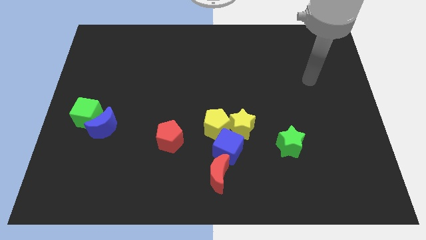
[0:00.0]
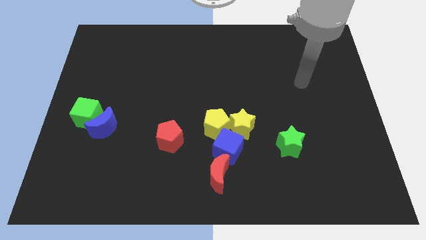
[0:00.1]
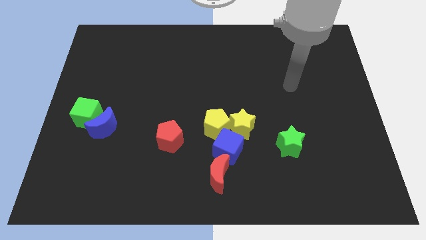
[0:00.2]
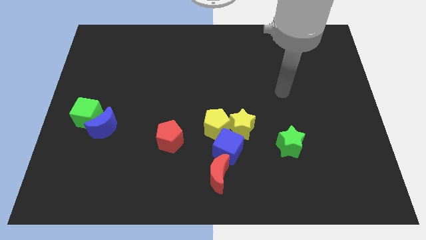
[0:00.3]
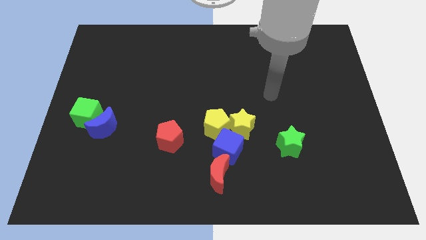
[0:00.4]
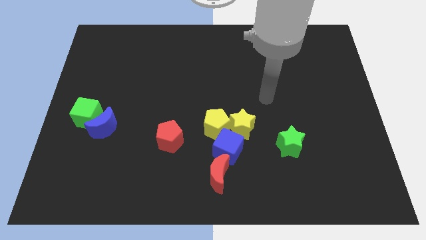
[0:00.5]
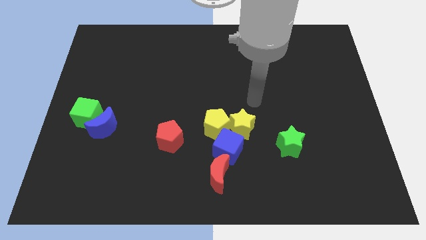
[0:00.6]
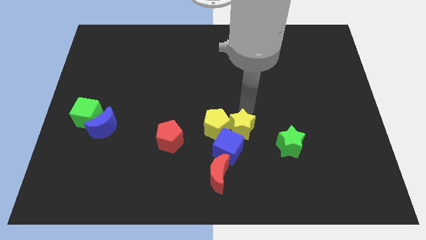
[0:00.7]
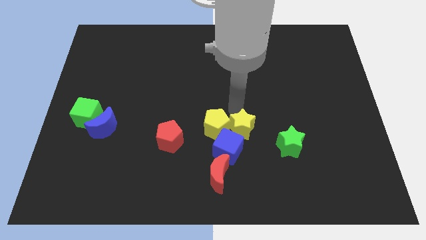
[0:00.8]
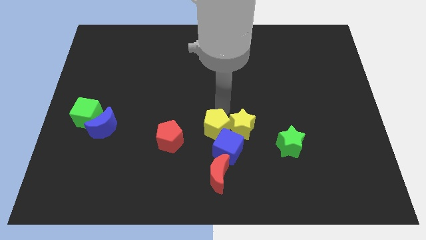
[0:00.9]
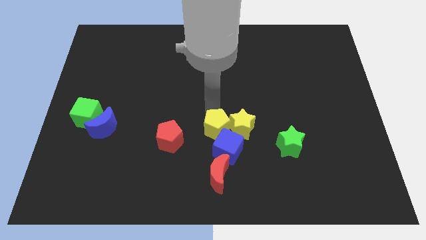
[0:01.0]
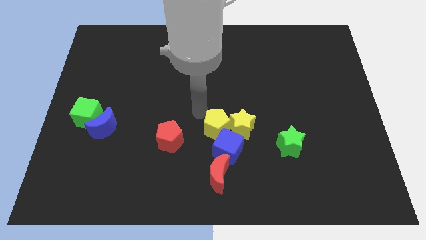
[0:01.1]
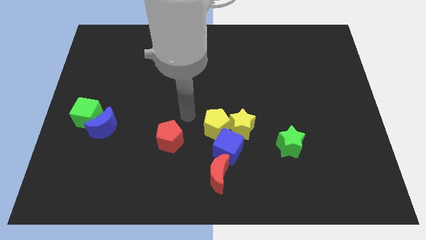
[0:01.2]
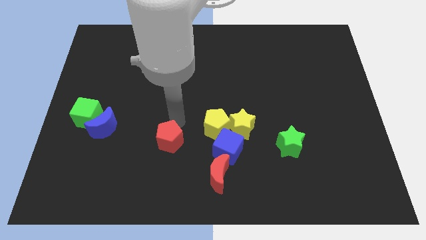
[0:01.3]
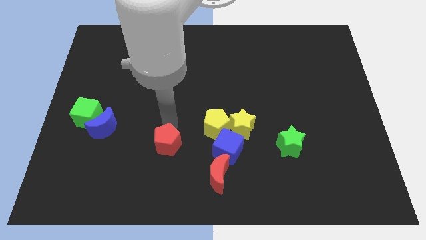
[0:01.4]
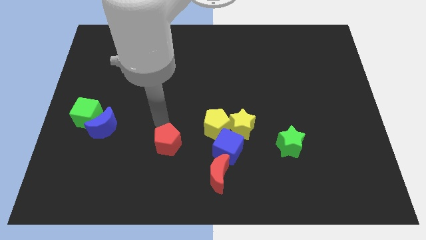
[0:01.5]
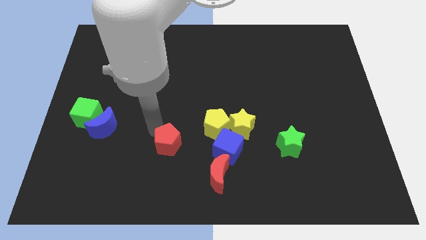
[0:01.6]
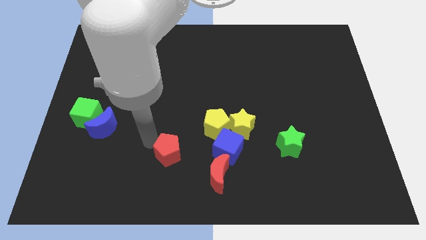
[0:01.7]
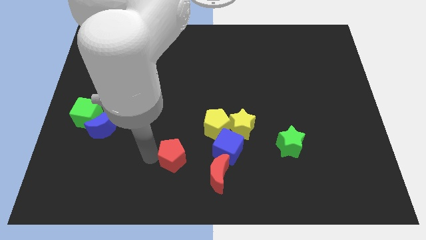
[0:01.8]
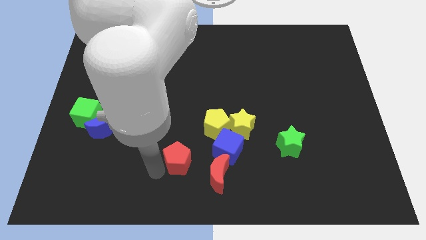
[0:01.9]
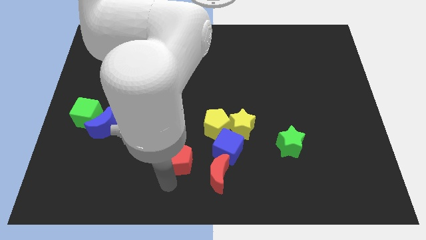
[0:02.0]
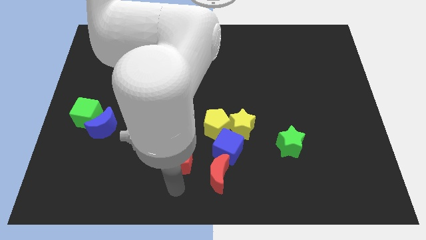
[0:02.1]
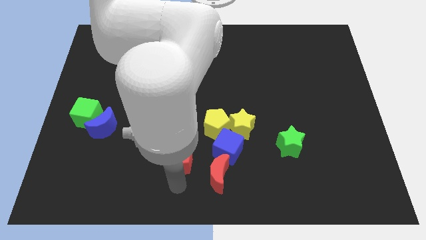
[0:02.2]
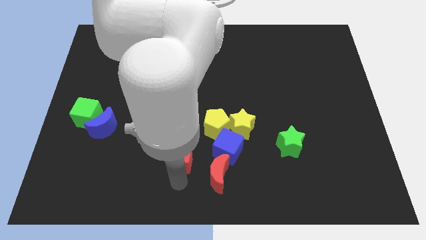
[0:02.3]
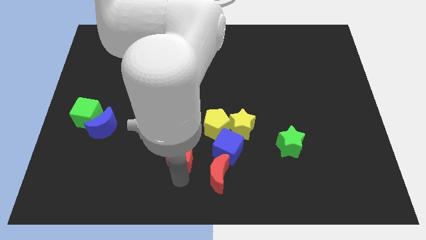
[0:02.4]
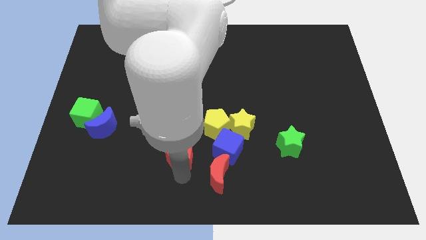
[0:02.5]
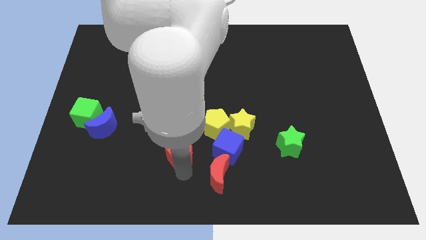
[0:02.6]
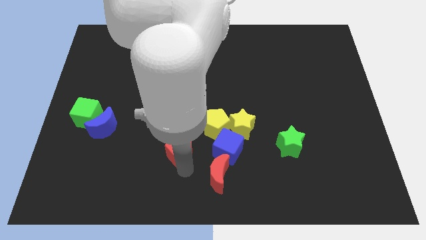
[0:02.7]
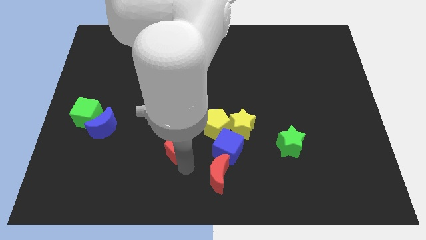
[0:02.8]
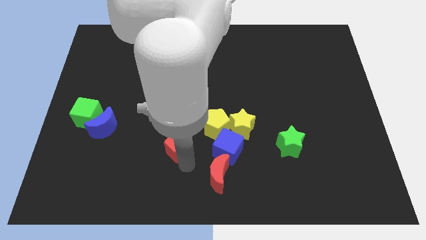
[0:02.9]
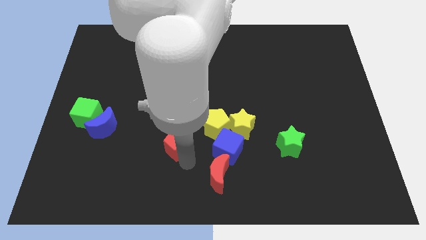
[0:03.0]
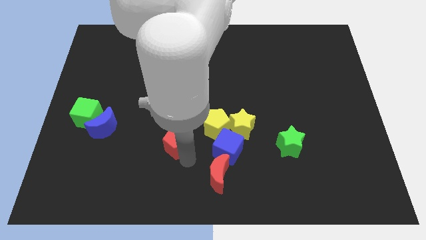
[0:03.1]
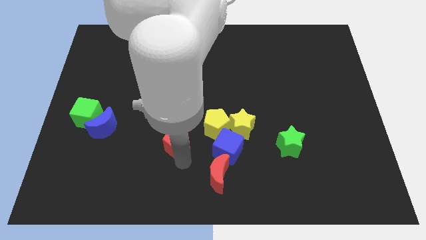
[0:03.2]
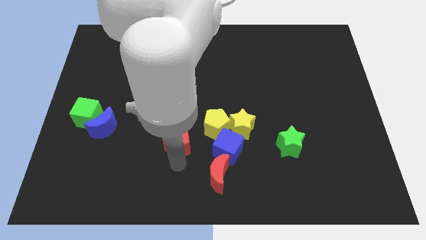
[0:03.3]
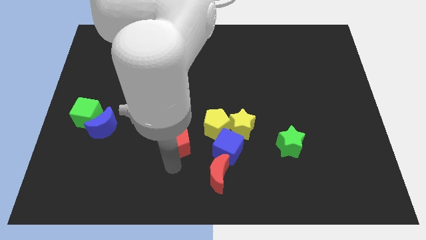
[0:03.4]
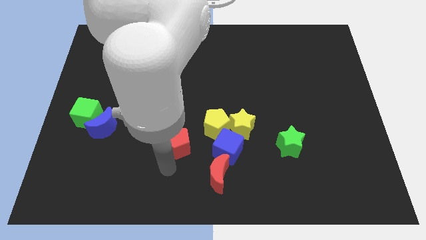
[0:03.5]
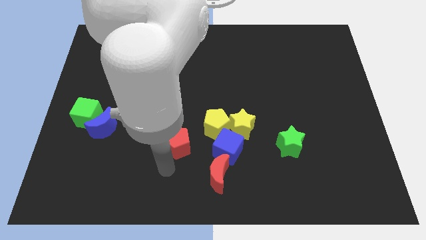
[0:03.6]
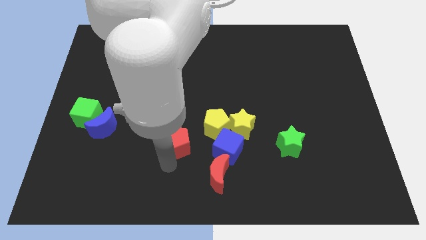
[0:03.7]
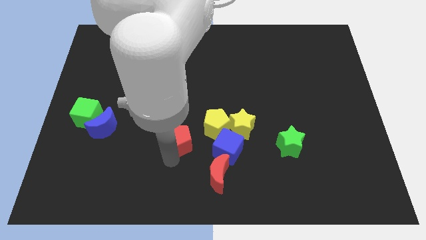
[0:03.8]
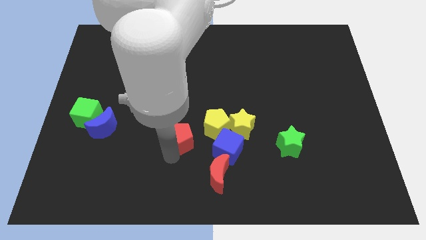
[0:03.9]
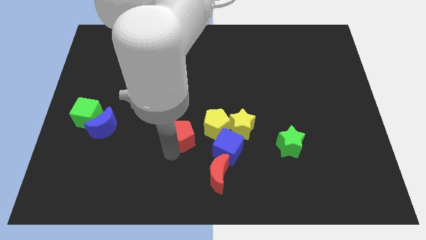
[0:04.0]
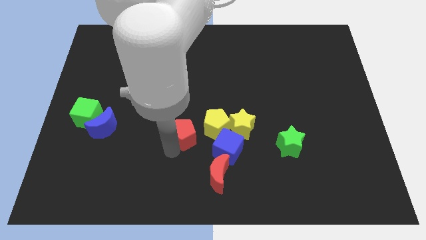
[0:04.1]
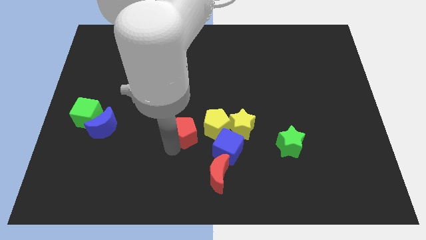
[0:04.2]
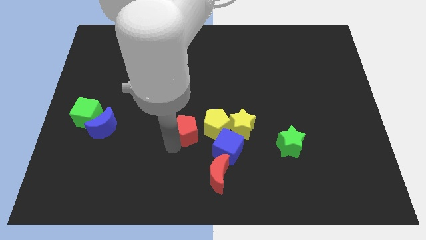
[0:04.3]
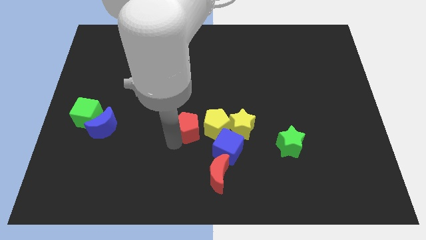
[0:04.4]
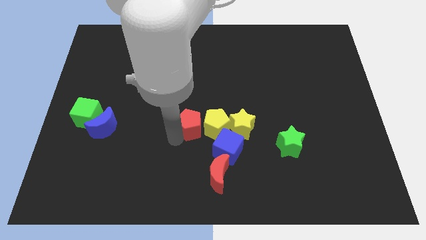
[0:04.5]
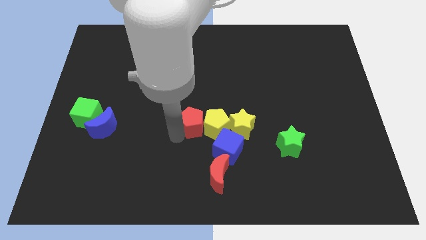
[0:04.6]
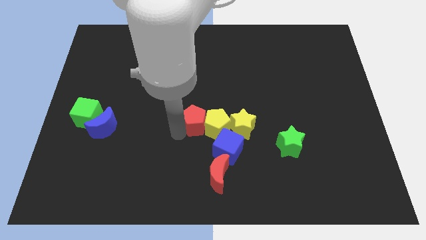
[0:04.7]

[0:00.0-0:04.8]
push the red pentagon diagonally upwards and to the right a little

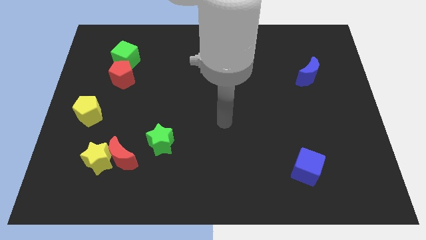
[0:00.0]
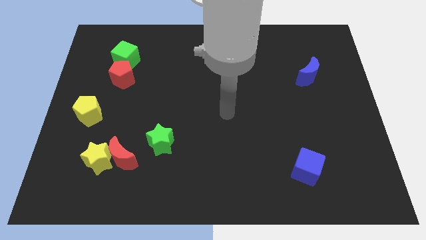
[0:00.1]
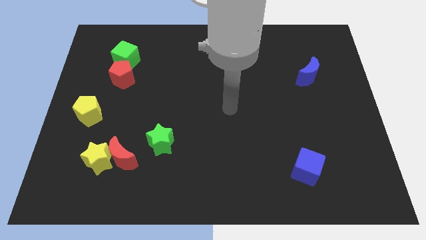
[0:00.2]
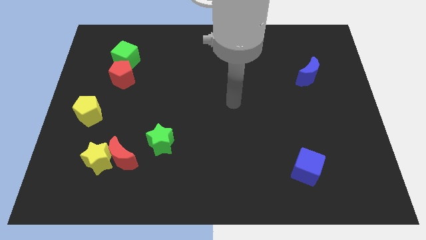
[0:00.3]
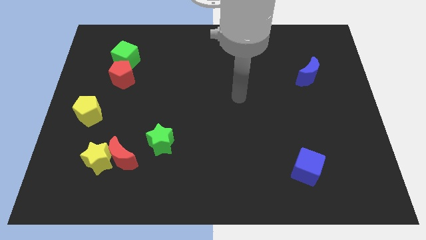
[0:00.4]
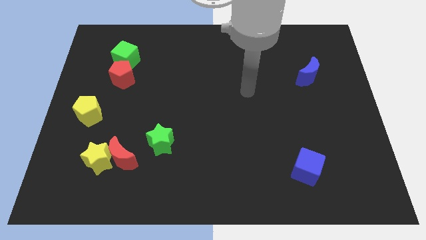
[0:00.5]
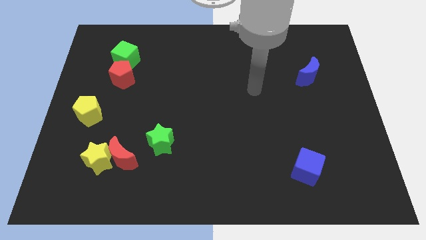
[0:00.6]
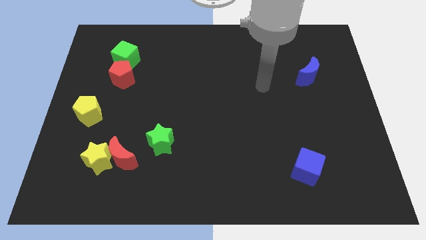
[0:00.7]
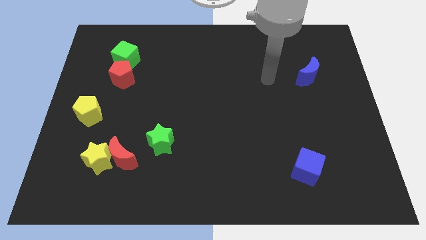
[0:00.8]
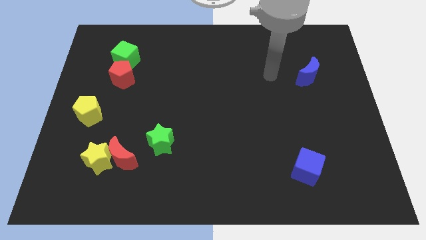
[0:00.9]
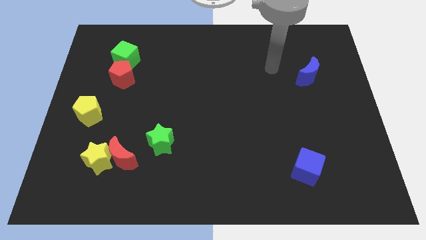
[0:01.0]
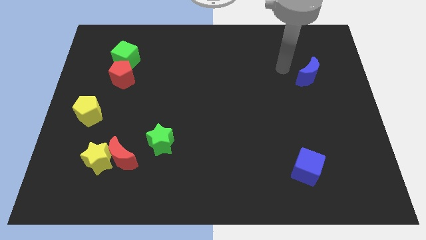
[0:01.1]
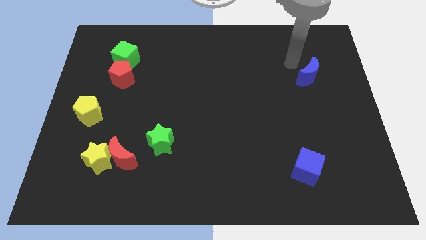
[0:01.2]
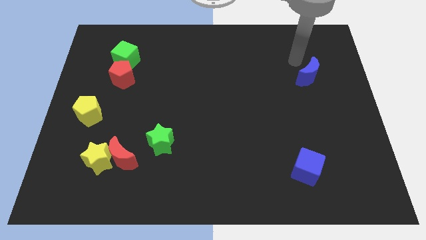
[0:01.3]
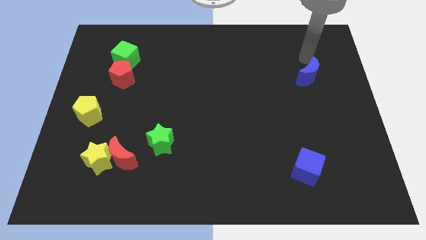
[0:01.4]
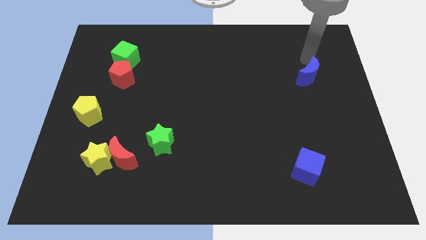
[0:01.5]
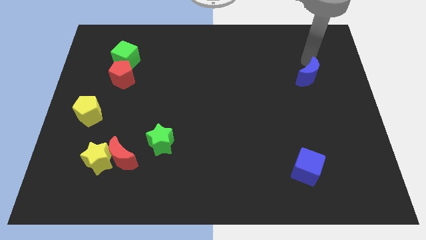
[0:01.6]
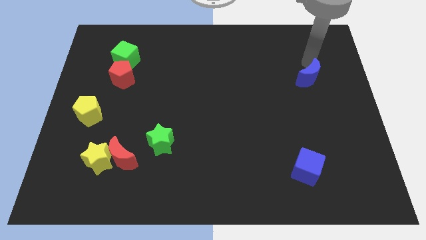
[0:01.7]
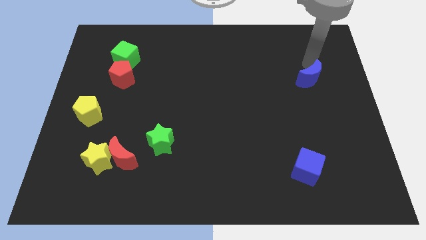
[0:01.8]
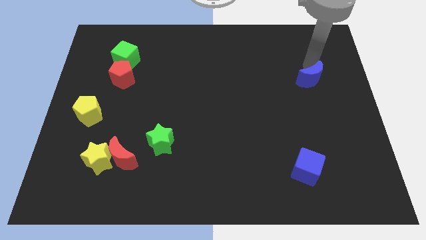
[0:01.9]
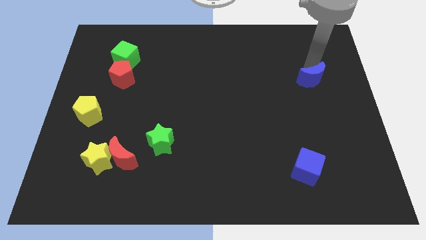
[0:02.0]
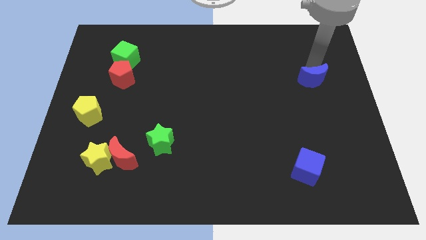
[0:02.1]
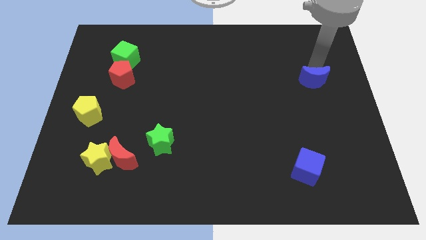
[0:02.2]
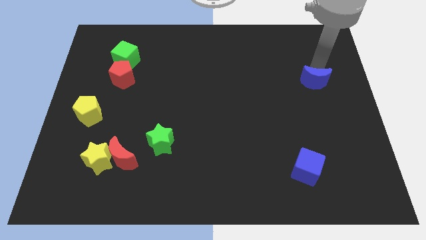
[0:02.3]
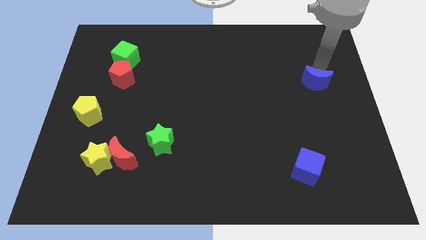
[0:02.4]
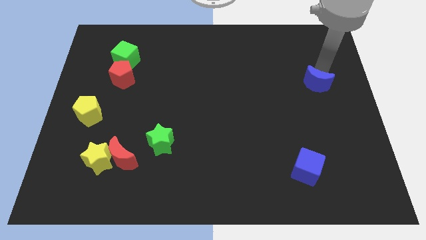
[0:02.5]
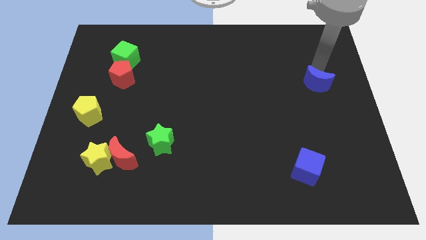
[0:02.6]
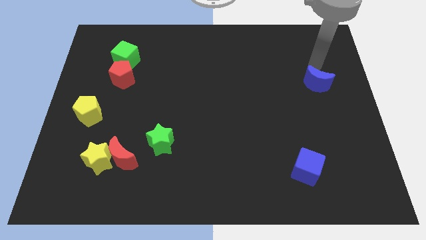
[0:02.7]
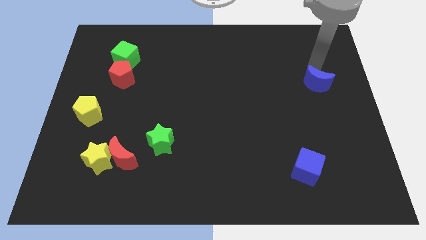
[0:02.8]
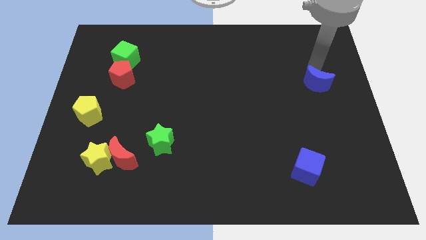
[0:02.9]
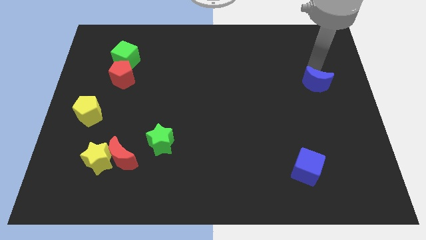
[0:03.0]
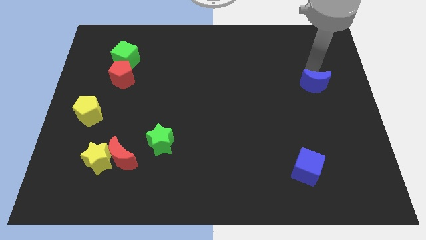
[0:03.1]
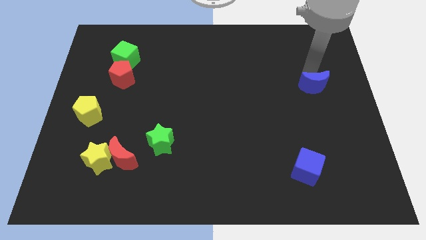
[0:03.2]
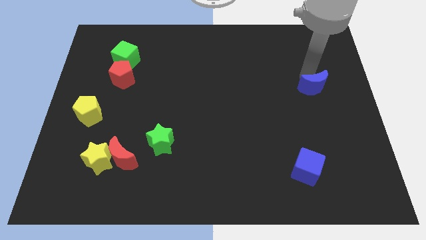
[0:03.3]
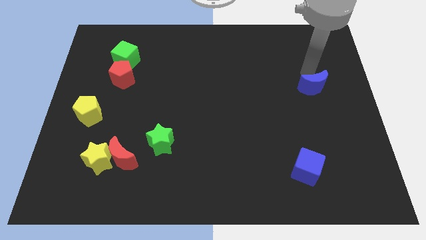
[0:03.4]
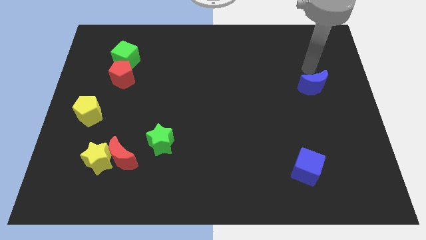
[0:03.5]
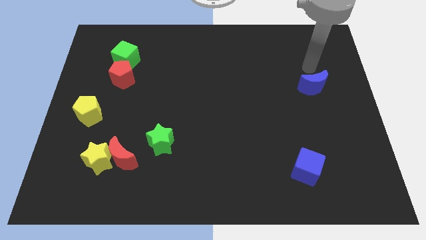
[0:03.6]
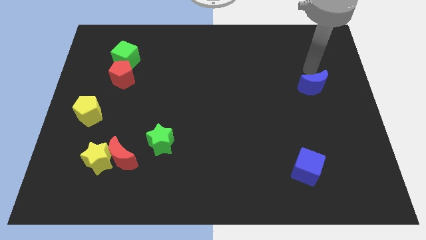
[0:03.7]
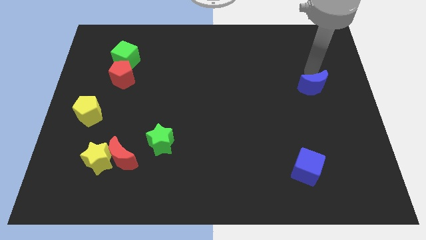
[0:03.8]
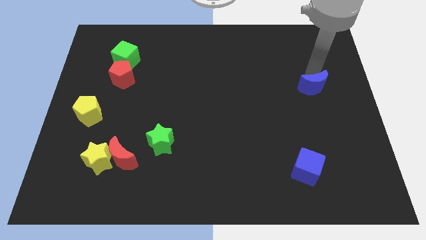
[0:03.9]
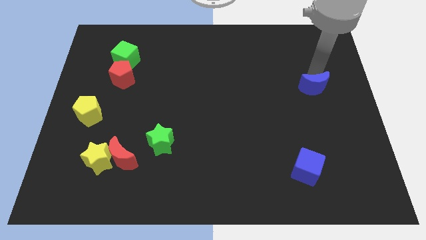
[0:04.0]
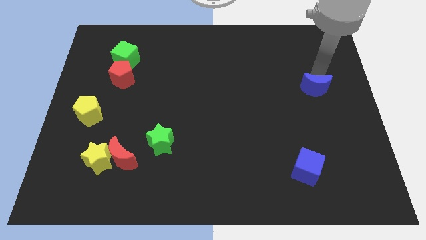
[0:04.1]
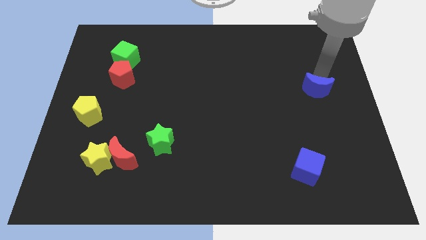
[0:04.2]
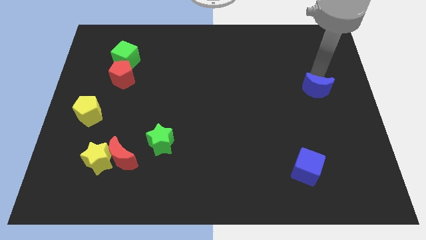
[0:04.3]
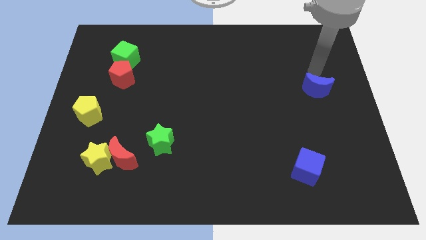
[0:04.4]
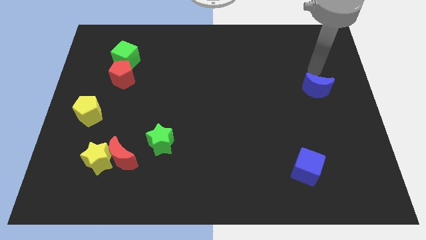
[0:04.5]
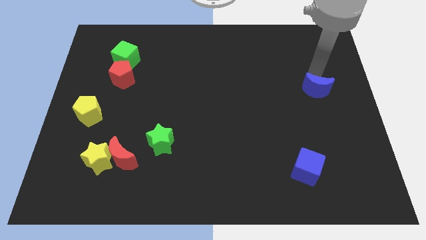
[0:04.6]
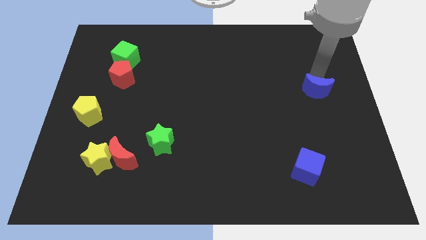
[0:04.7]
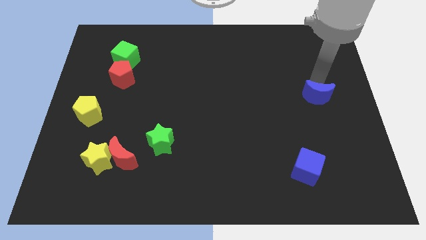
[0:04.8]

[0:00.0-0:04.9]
push the blue moon downwards a little
